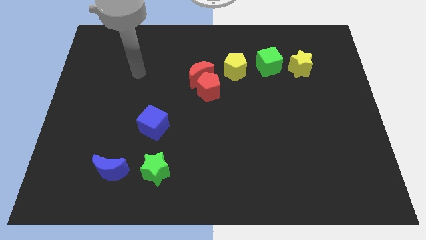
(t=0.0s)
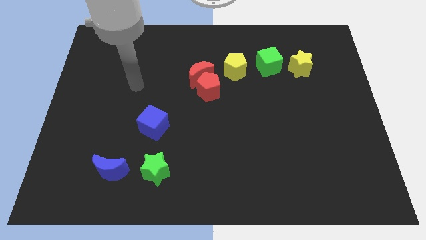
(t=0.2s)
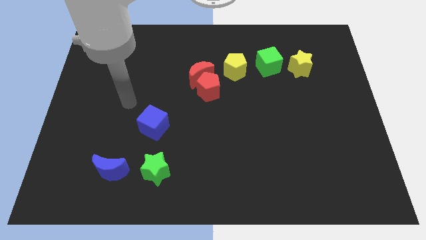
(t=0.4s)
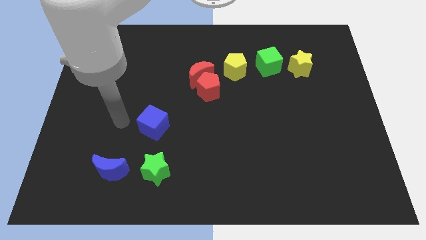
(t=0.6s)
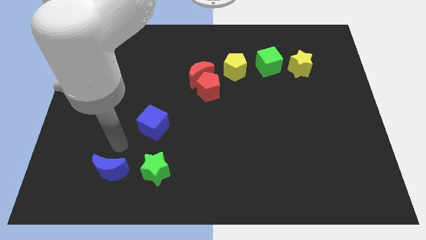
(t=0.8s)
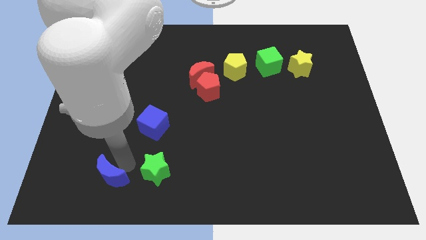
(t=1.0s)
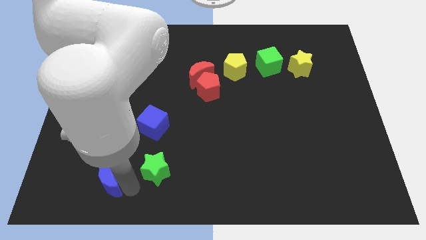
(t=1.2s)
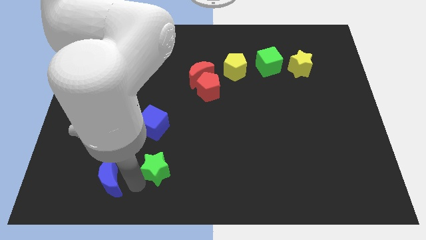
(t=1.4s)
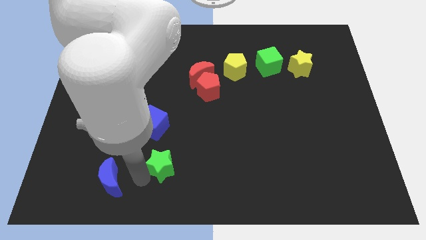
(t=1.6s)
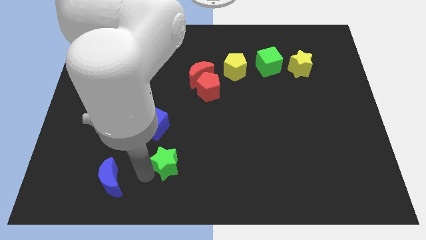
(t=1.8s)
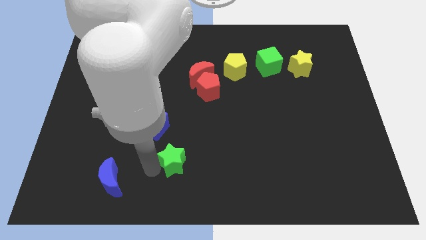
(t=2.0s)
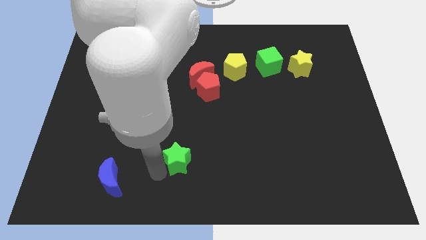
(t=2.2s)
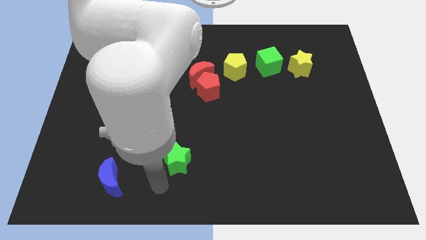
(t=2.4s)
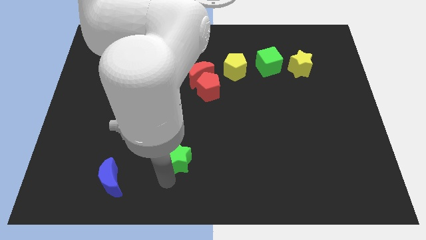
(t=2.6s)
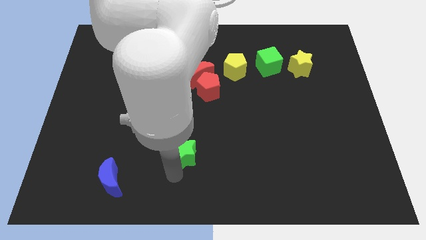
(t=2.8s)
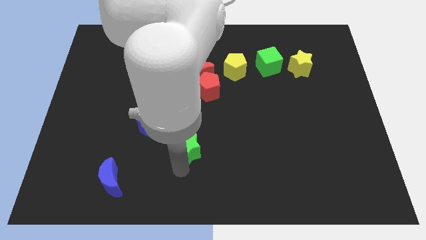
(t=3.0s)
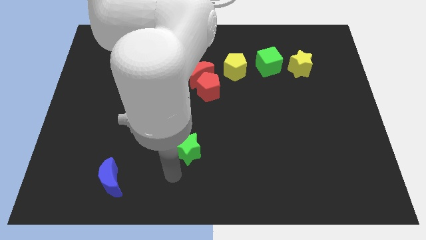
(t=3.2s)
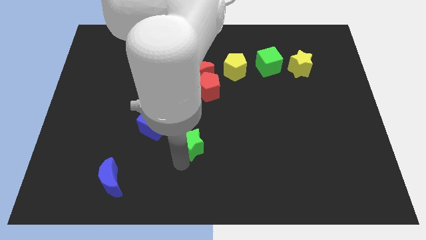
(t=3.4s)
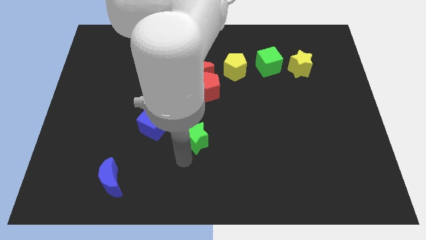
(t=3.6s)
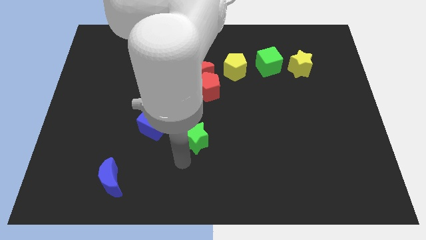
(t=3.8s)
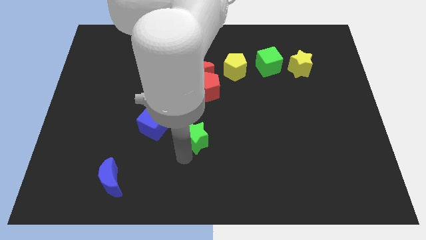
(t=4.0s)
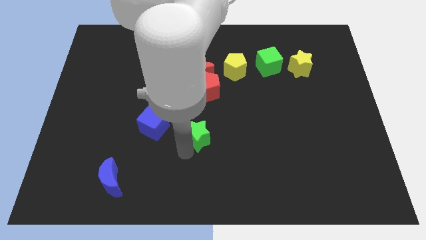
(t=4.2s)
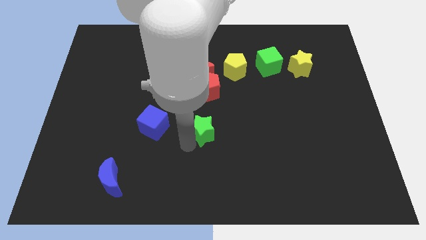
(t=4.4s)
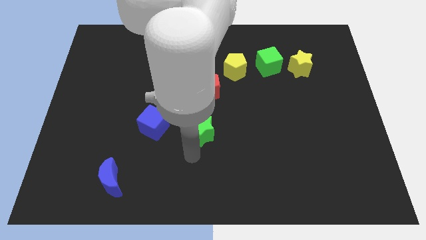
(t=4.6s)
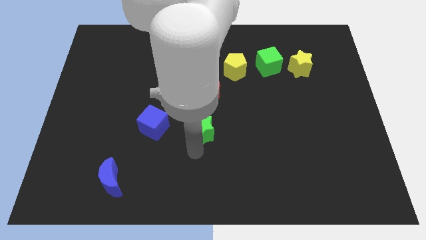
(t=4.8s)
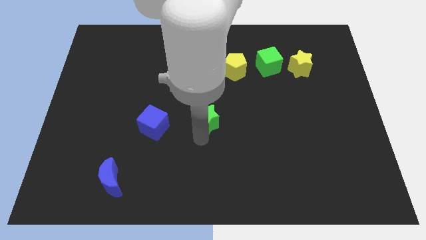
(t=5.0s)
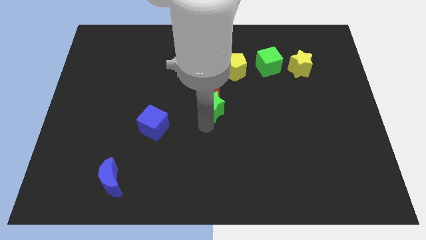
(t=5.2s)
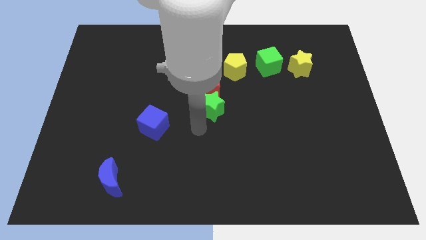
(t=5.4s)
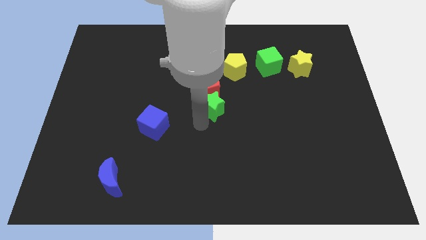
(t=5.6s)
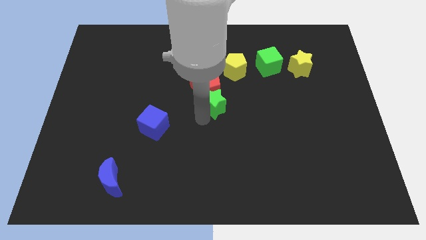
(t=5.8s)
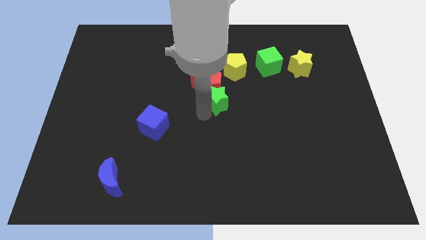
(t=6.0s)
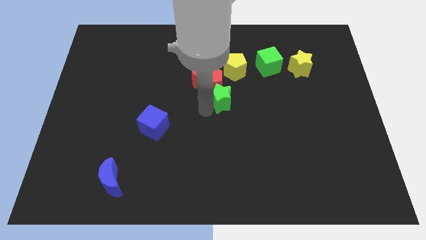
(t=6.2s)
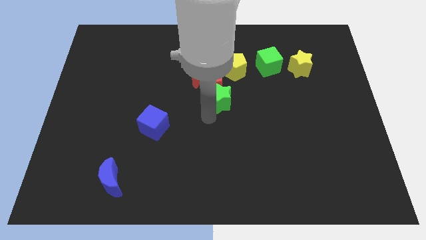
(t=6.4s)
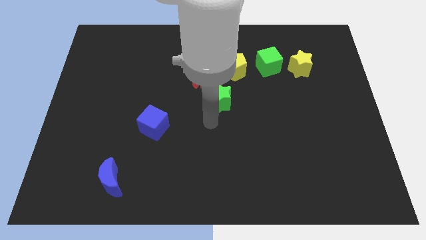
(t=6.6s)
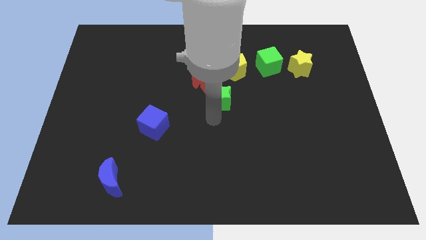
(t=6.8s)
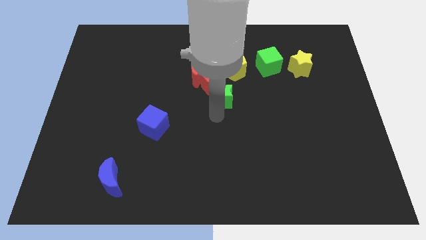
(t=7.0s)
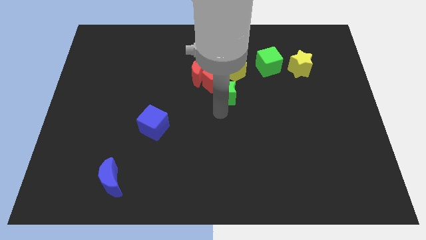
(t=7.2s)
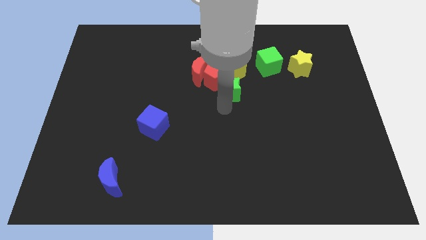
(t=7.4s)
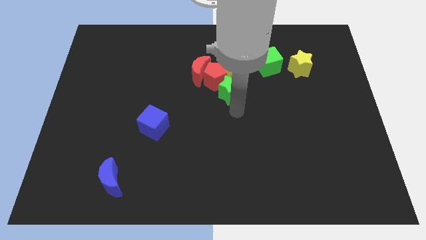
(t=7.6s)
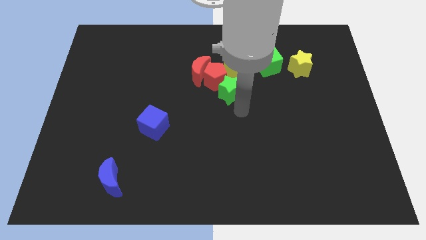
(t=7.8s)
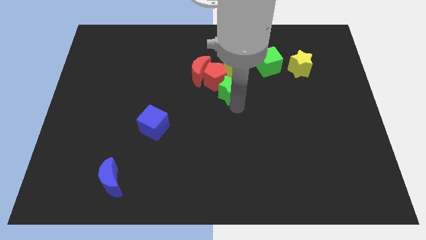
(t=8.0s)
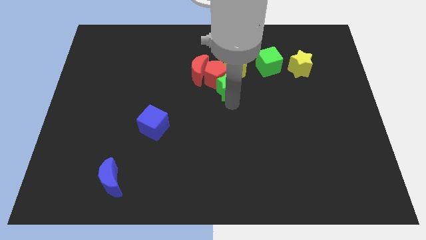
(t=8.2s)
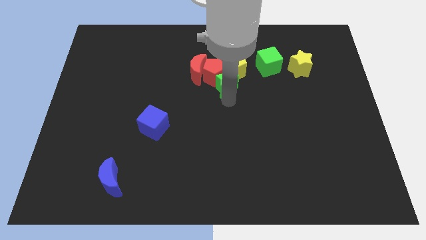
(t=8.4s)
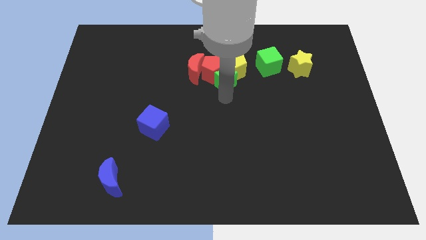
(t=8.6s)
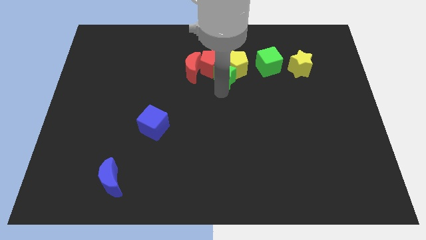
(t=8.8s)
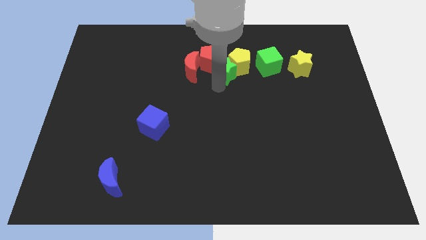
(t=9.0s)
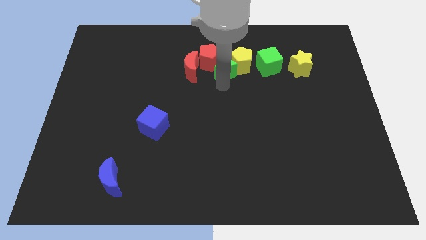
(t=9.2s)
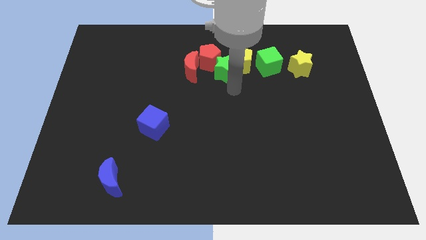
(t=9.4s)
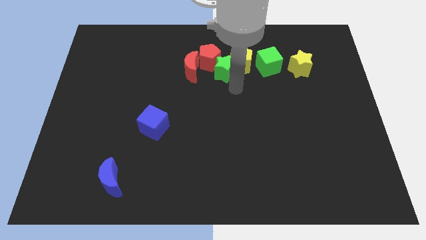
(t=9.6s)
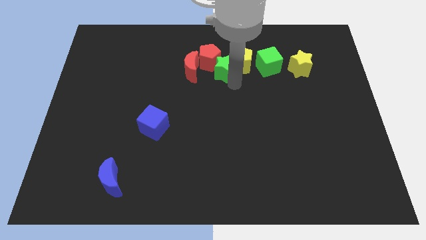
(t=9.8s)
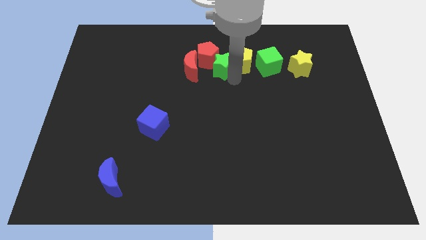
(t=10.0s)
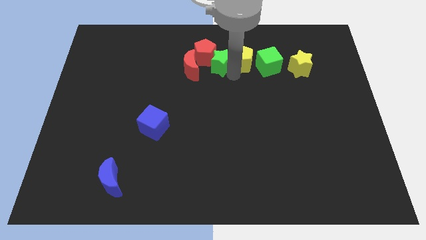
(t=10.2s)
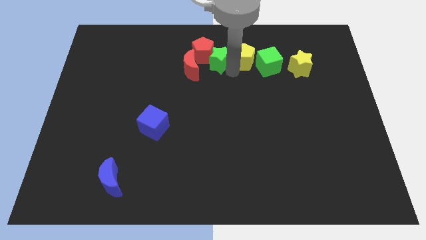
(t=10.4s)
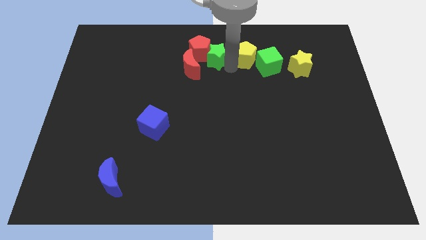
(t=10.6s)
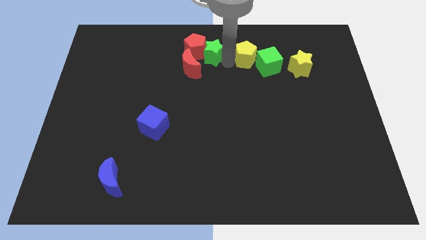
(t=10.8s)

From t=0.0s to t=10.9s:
move the green star to the top

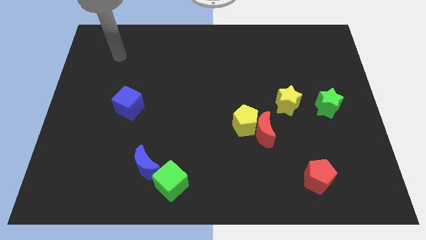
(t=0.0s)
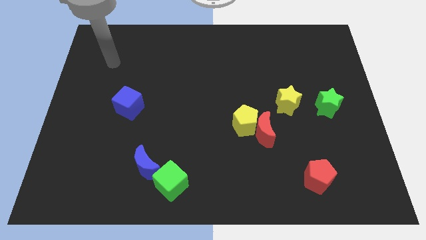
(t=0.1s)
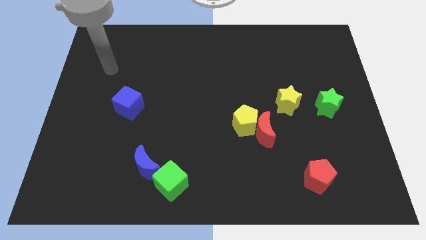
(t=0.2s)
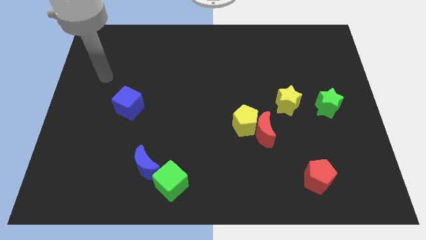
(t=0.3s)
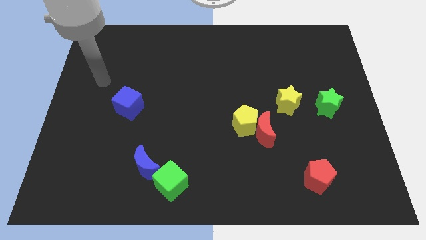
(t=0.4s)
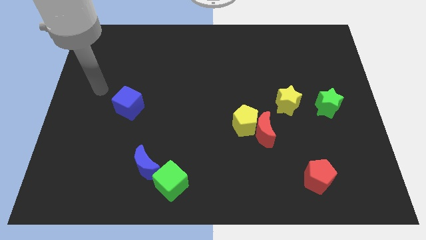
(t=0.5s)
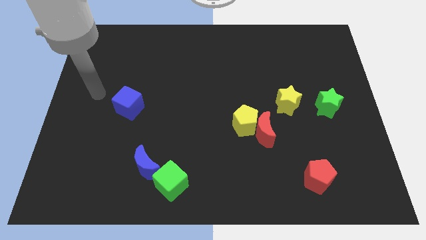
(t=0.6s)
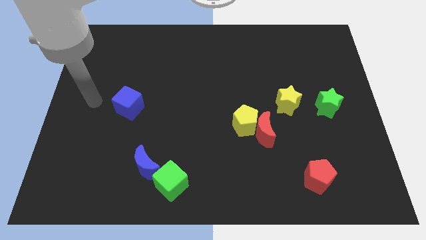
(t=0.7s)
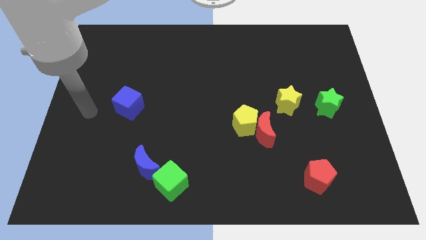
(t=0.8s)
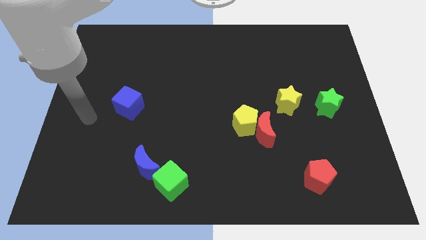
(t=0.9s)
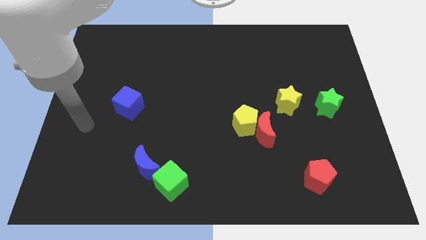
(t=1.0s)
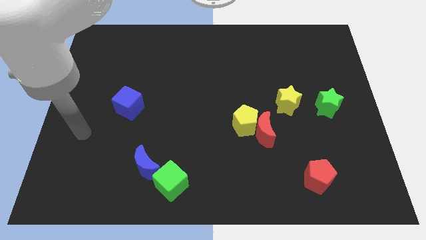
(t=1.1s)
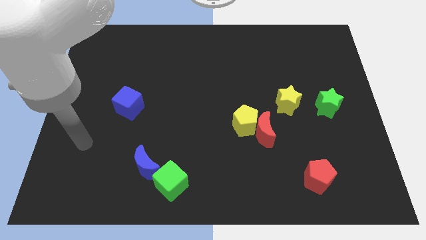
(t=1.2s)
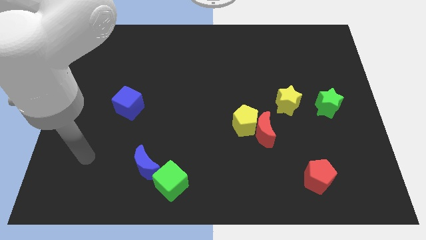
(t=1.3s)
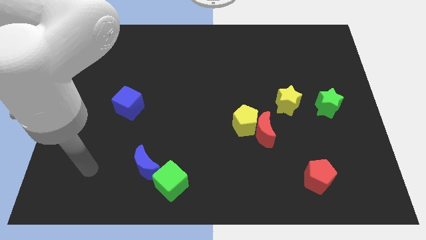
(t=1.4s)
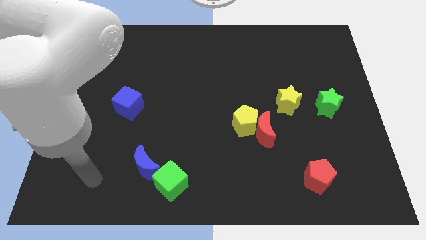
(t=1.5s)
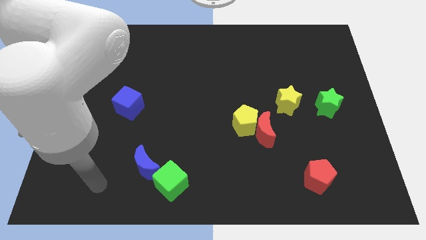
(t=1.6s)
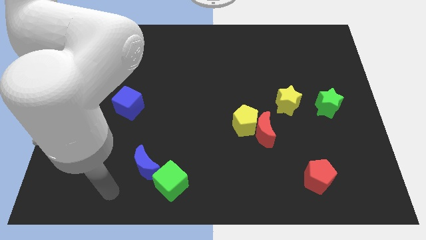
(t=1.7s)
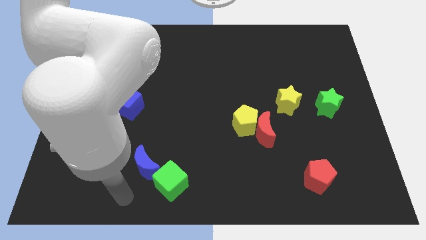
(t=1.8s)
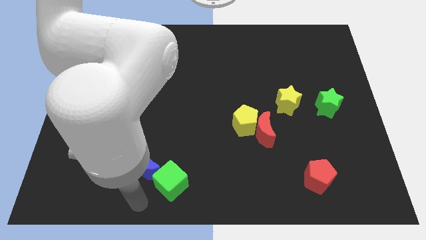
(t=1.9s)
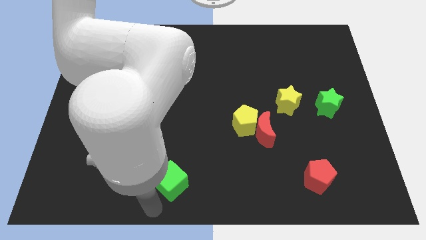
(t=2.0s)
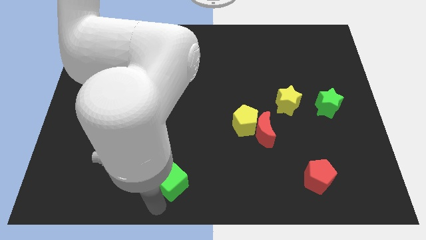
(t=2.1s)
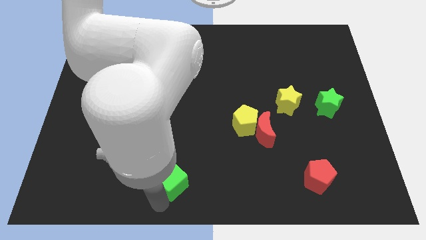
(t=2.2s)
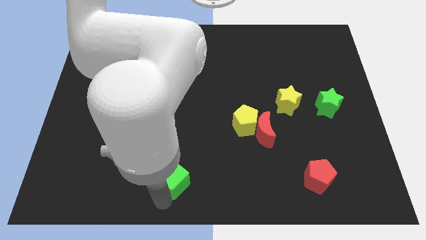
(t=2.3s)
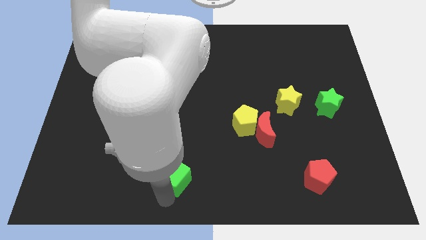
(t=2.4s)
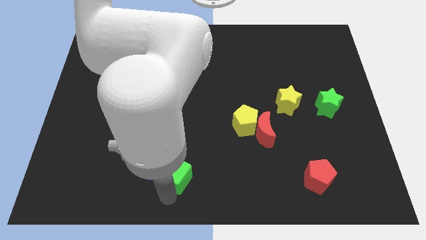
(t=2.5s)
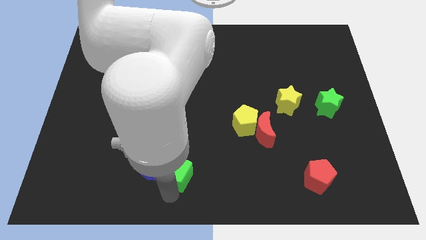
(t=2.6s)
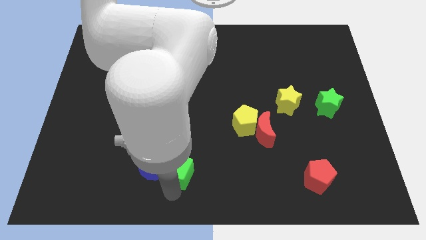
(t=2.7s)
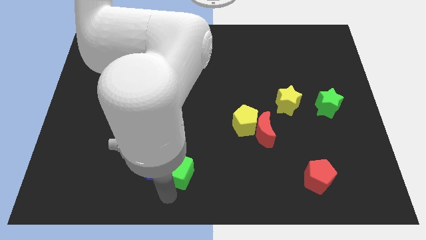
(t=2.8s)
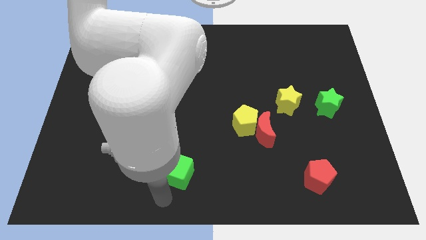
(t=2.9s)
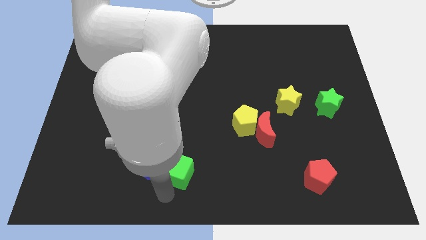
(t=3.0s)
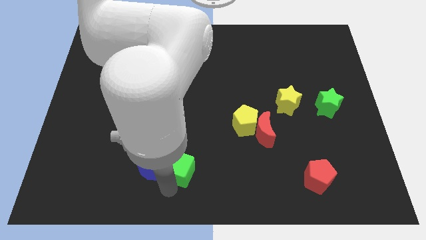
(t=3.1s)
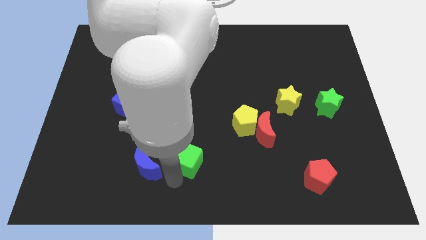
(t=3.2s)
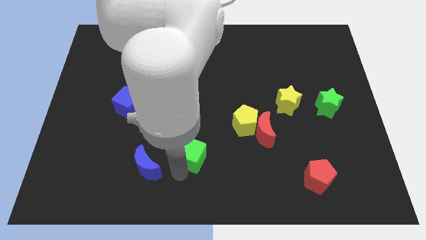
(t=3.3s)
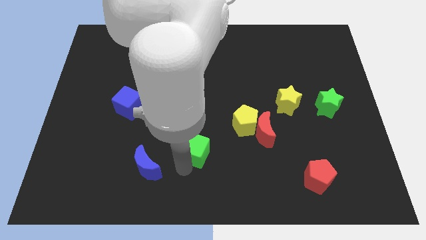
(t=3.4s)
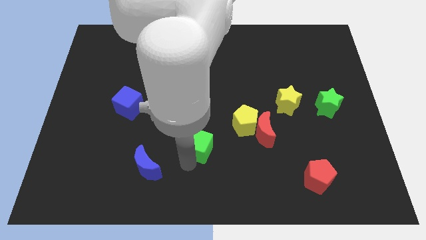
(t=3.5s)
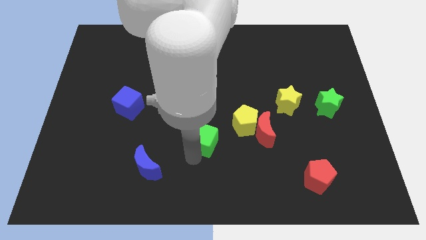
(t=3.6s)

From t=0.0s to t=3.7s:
put the green cube to the middle of the board
